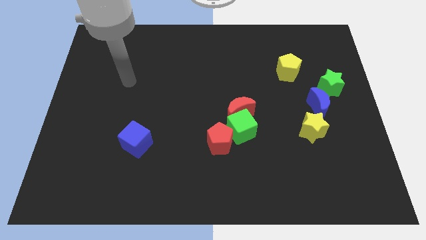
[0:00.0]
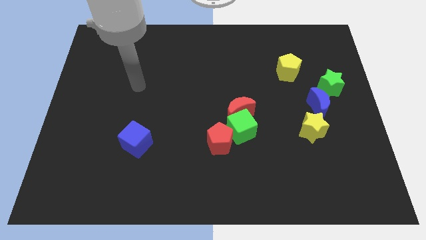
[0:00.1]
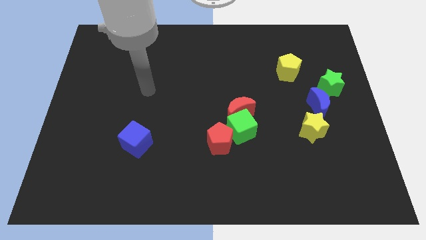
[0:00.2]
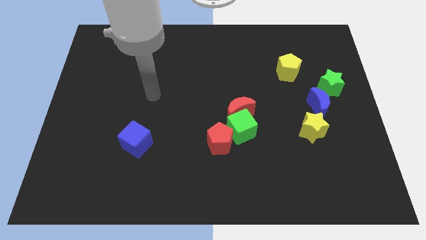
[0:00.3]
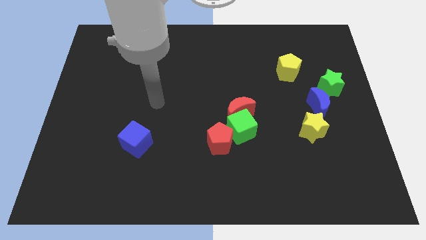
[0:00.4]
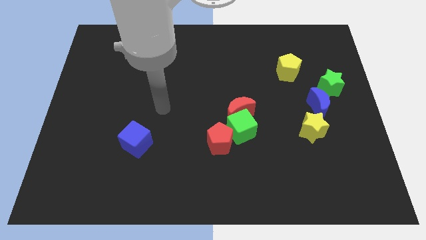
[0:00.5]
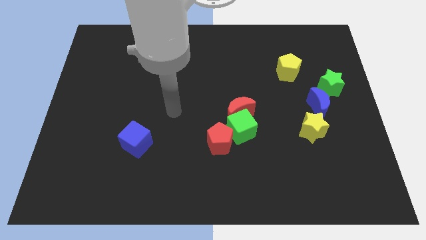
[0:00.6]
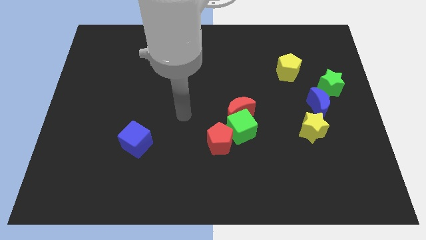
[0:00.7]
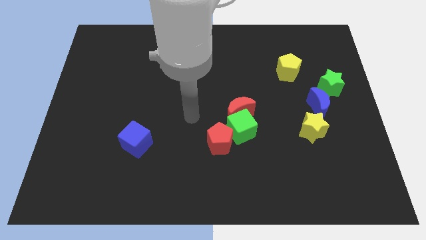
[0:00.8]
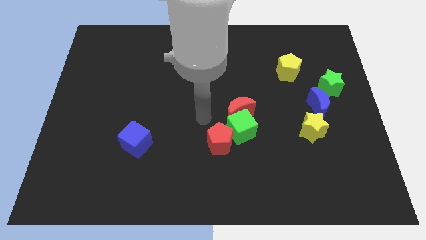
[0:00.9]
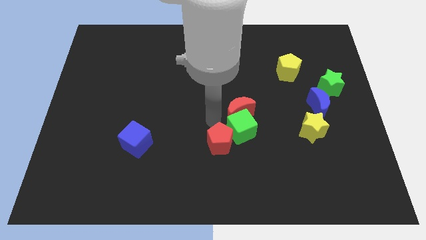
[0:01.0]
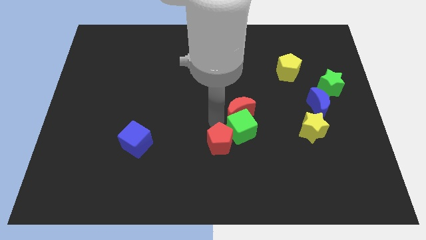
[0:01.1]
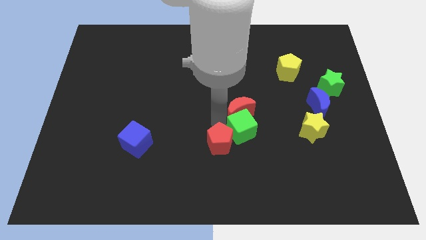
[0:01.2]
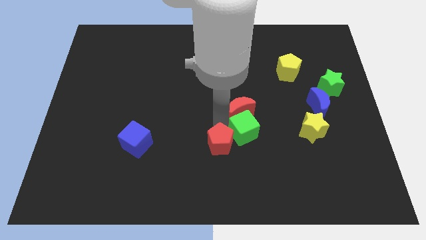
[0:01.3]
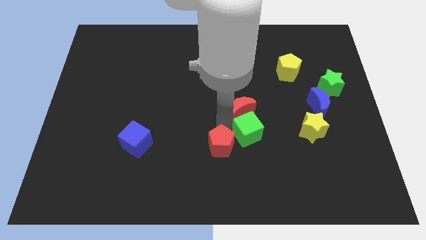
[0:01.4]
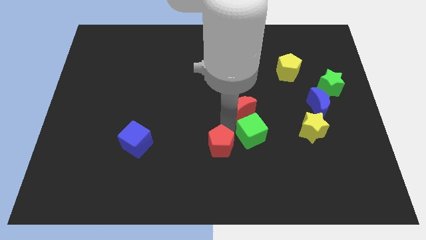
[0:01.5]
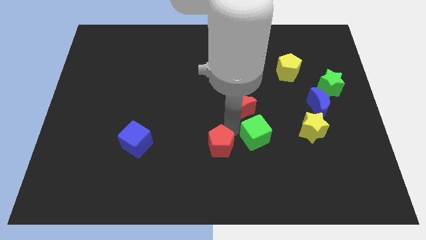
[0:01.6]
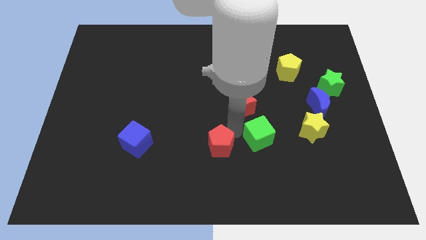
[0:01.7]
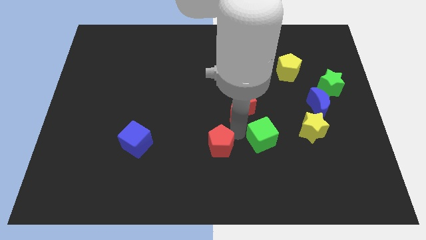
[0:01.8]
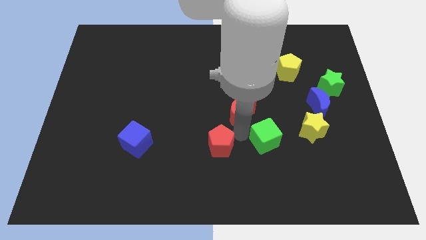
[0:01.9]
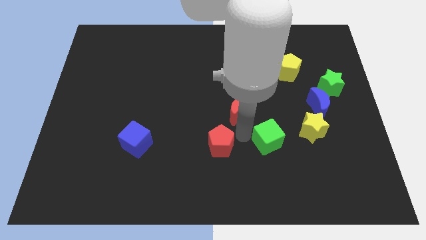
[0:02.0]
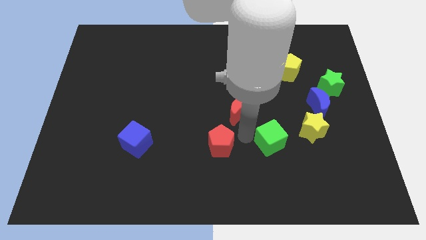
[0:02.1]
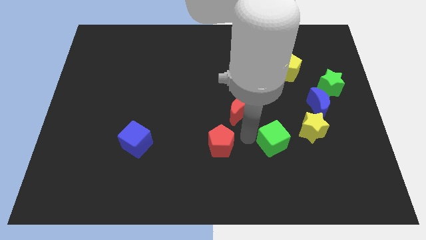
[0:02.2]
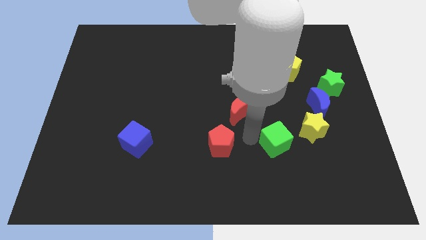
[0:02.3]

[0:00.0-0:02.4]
separate the green cube from the red moon and red pentagon

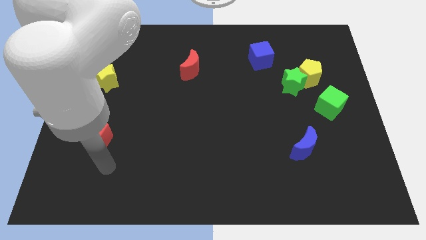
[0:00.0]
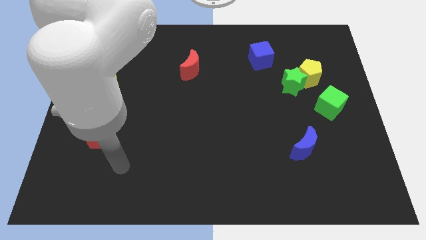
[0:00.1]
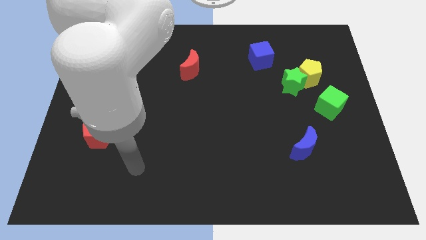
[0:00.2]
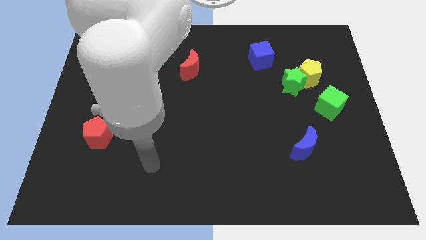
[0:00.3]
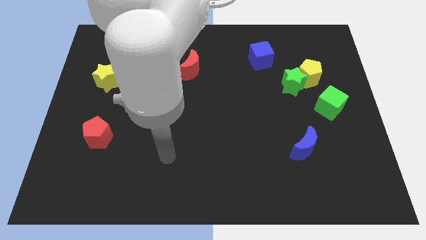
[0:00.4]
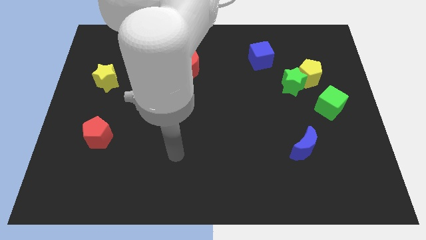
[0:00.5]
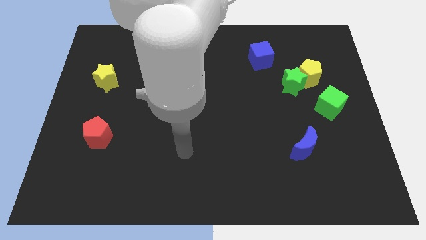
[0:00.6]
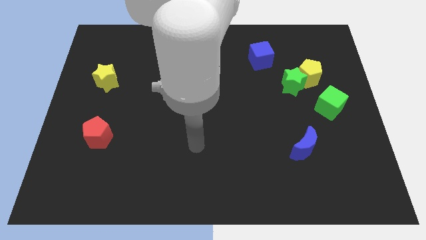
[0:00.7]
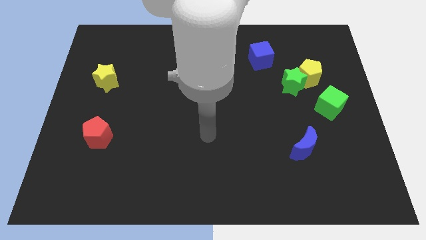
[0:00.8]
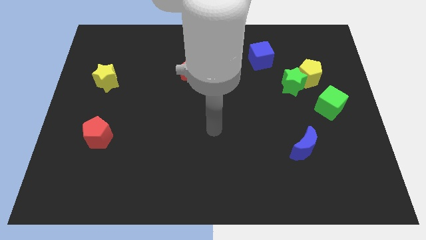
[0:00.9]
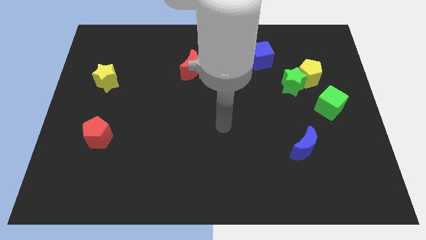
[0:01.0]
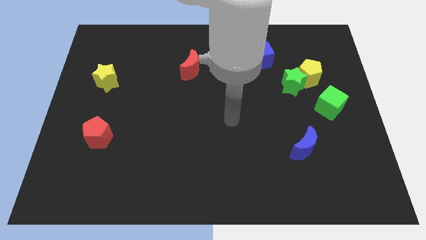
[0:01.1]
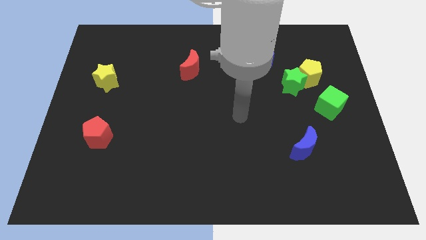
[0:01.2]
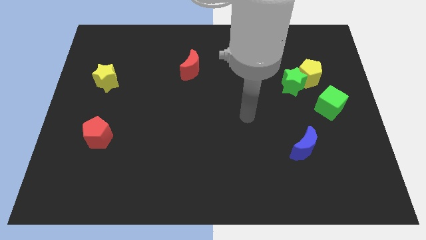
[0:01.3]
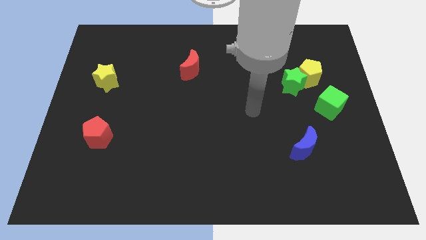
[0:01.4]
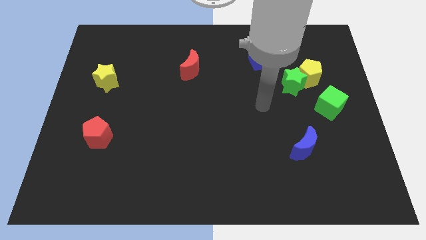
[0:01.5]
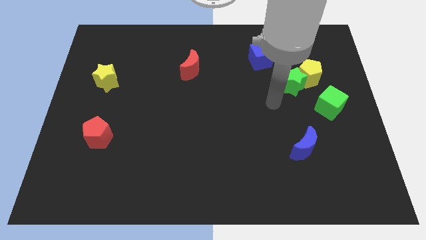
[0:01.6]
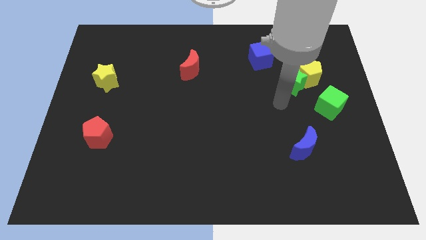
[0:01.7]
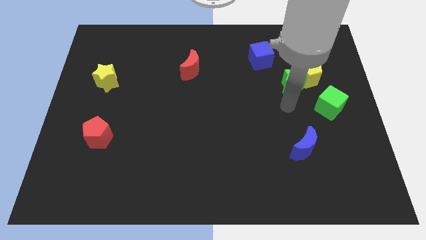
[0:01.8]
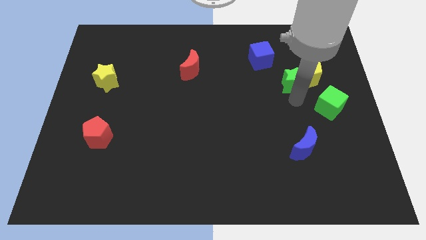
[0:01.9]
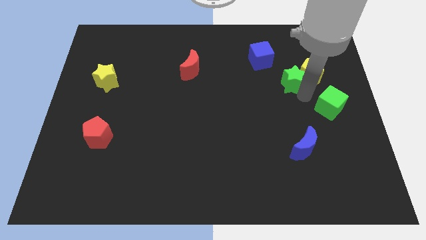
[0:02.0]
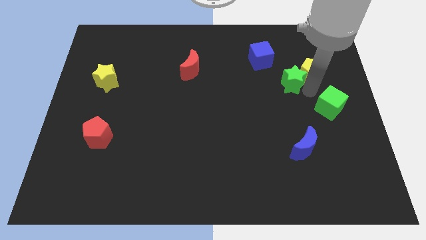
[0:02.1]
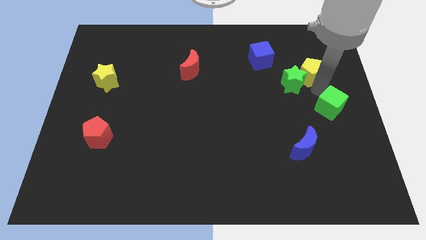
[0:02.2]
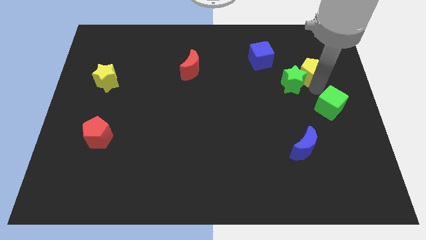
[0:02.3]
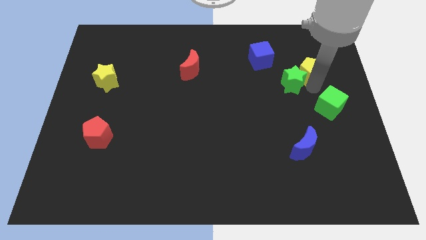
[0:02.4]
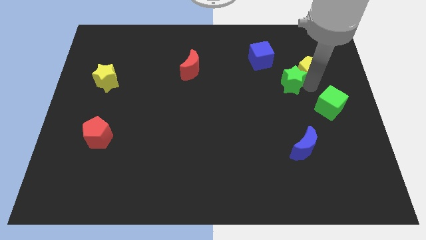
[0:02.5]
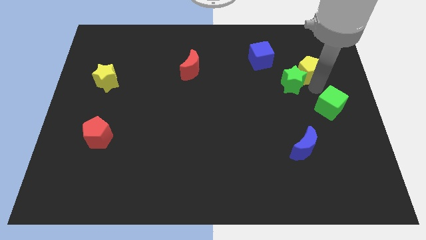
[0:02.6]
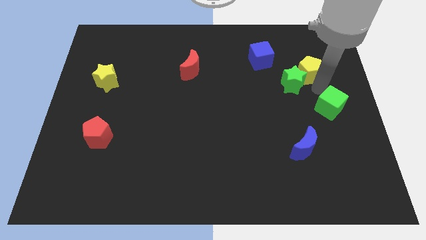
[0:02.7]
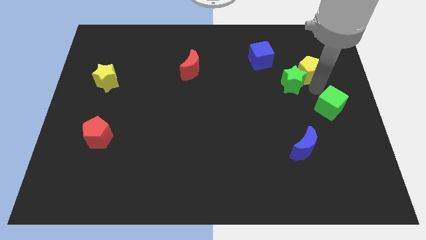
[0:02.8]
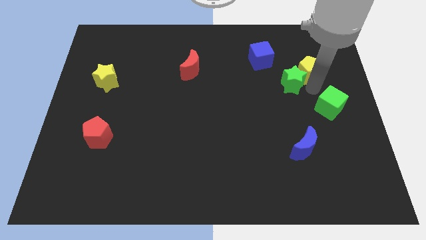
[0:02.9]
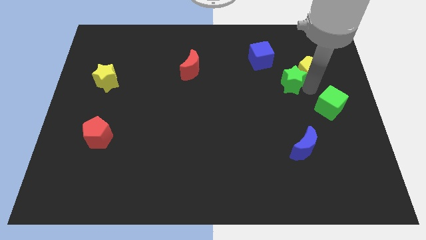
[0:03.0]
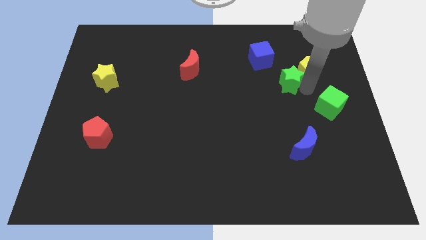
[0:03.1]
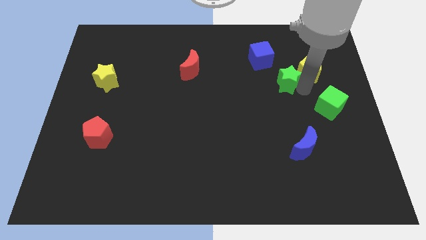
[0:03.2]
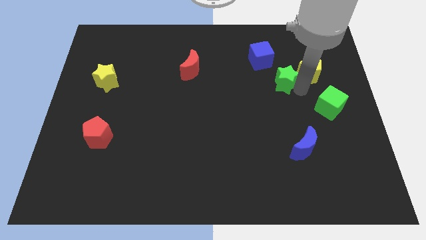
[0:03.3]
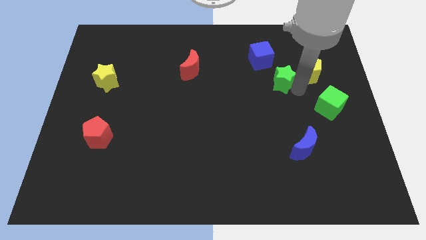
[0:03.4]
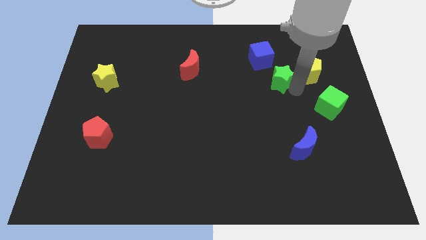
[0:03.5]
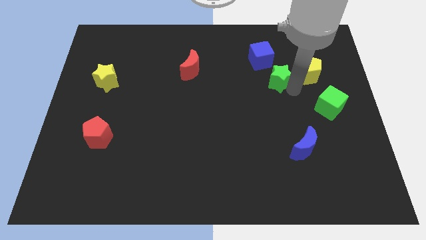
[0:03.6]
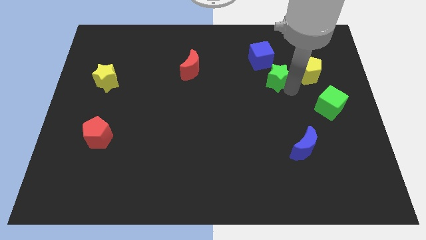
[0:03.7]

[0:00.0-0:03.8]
move the green star away from the yellow pentagon and green cube

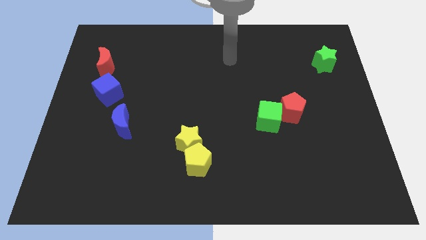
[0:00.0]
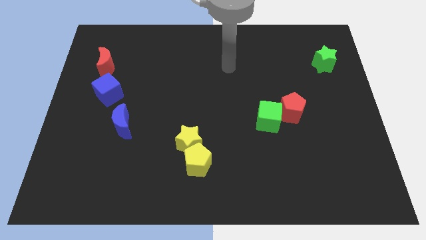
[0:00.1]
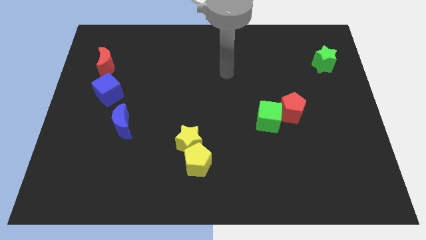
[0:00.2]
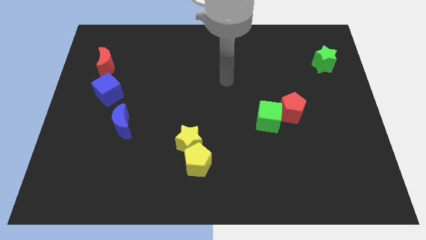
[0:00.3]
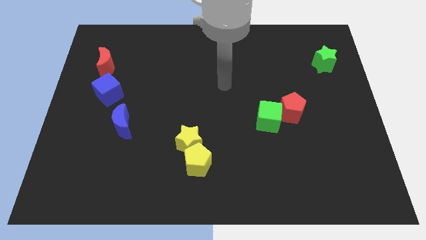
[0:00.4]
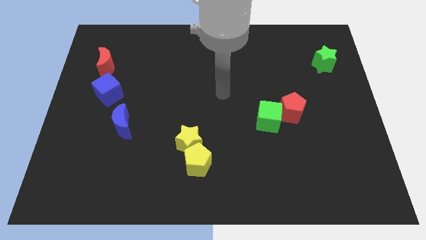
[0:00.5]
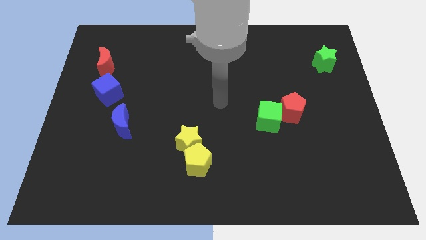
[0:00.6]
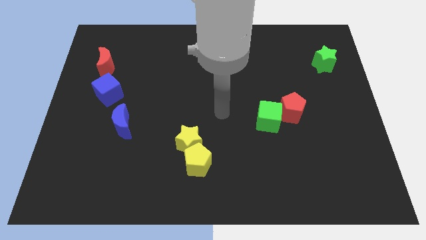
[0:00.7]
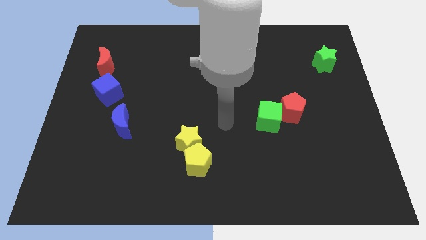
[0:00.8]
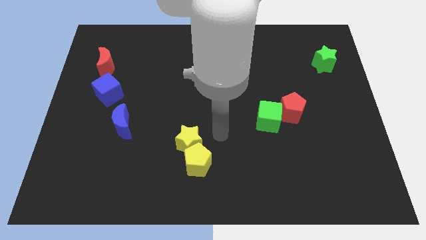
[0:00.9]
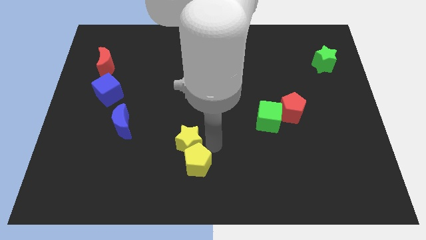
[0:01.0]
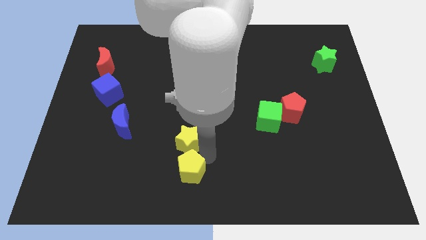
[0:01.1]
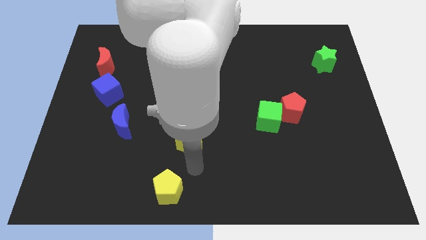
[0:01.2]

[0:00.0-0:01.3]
pull the yellow star apart from the yellow pentagon

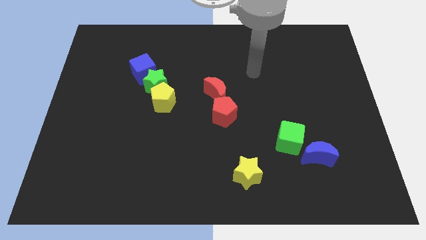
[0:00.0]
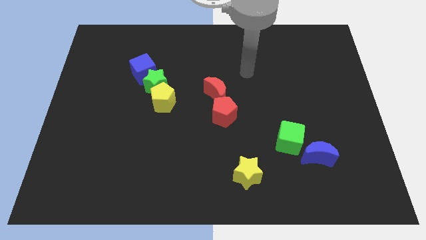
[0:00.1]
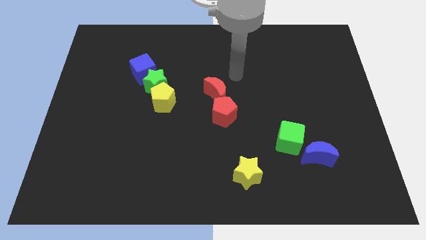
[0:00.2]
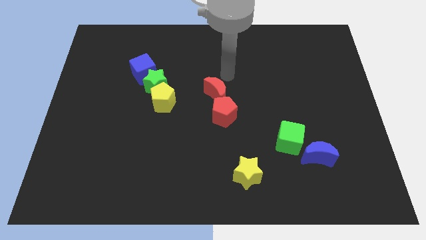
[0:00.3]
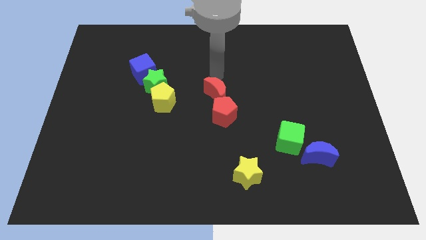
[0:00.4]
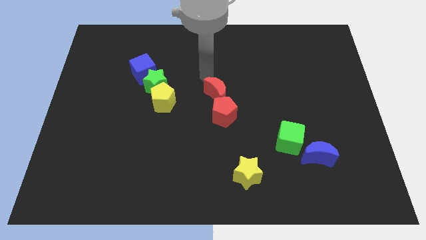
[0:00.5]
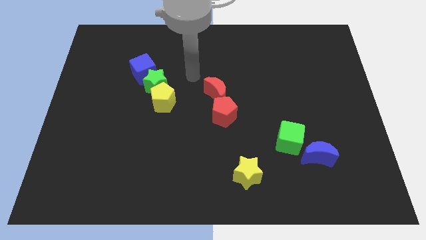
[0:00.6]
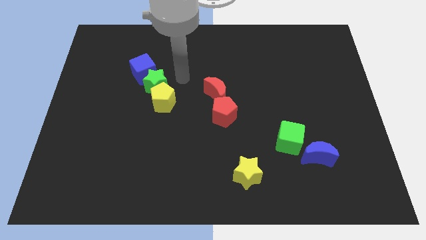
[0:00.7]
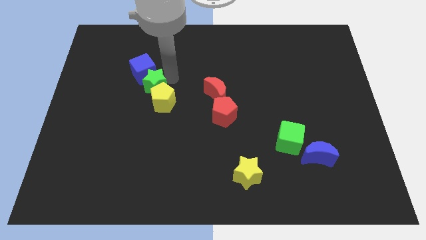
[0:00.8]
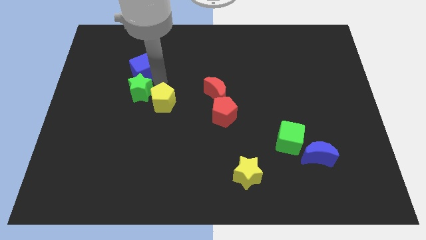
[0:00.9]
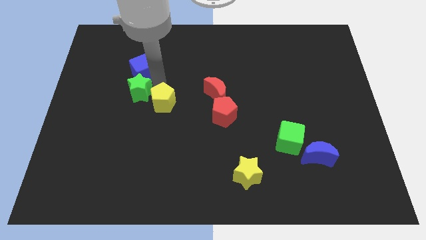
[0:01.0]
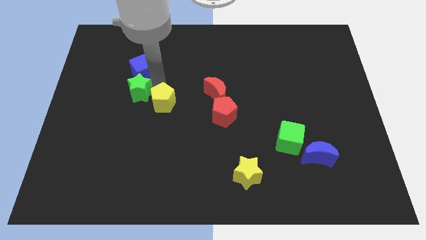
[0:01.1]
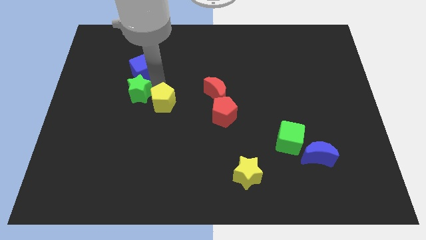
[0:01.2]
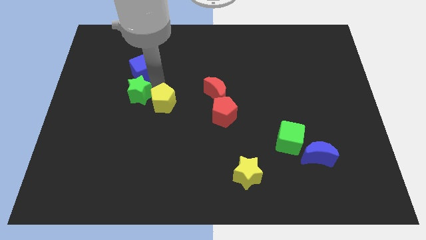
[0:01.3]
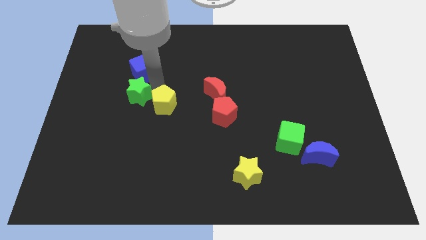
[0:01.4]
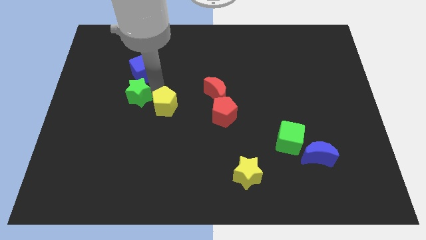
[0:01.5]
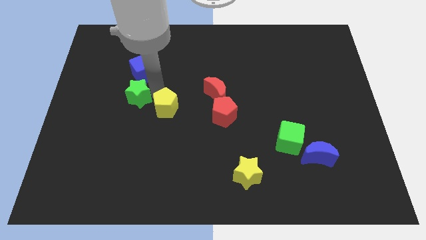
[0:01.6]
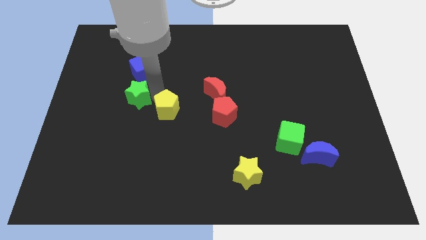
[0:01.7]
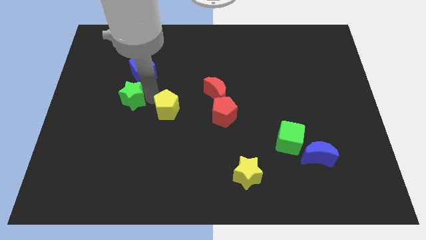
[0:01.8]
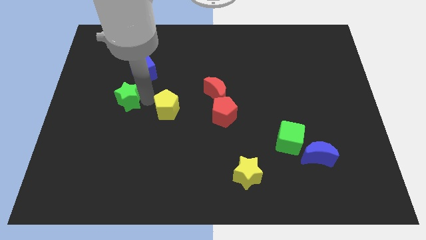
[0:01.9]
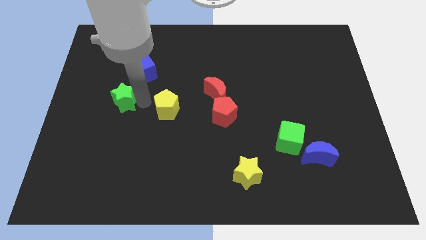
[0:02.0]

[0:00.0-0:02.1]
move the yellow pentagon away from the green star
